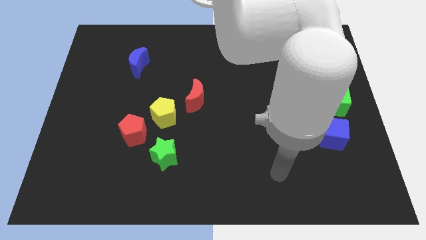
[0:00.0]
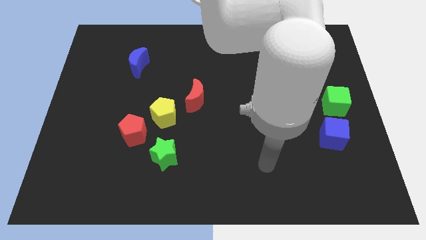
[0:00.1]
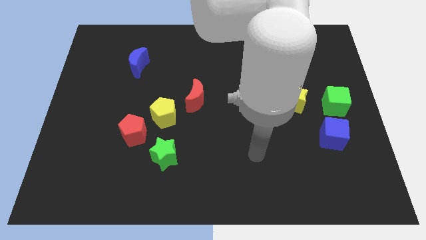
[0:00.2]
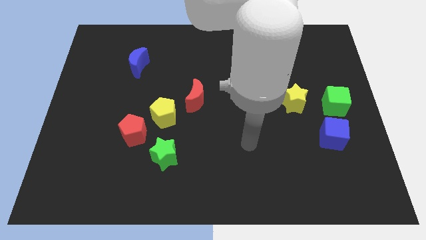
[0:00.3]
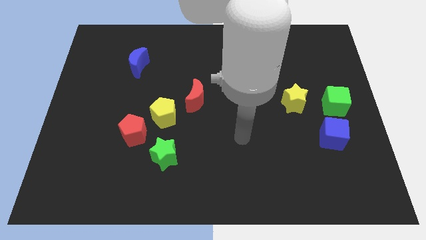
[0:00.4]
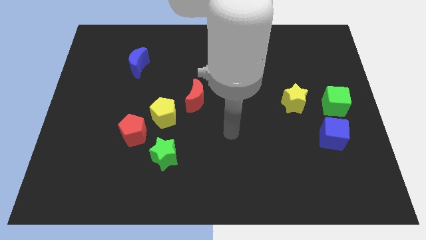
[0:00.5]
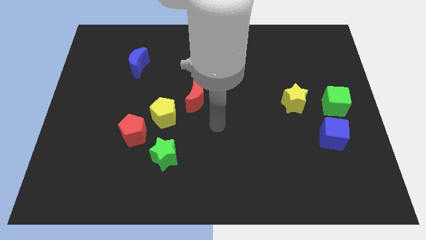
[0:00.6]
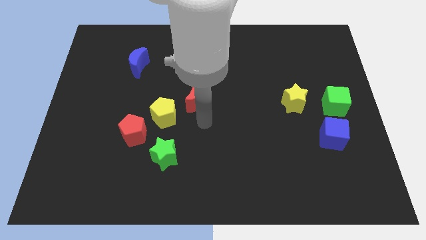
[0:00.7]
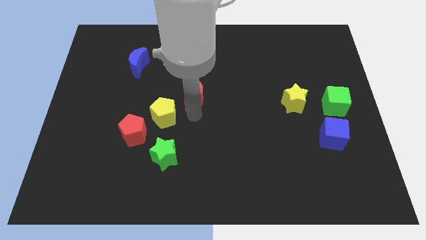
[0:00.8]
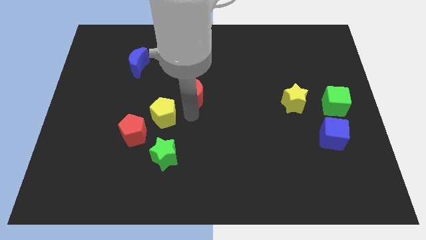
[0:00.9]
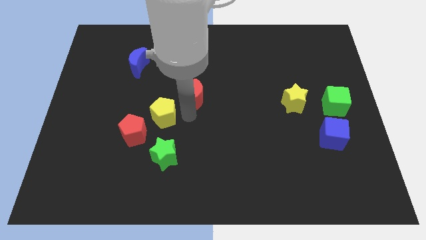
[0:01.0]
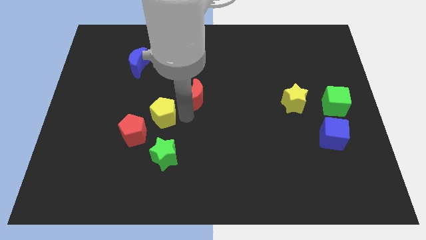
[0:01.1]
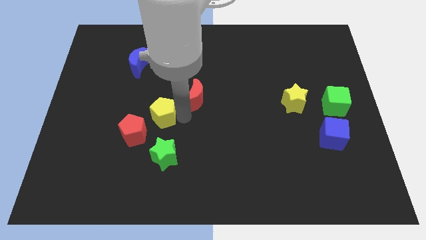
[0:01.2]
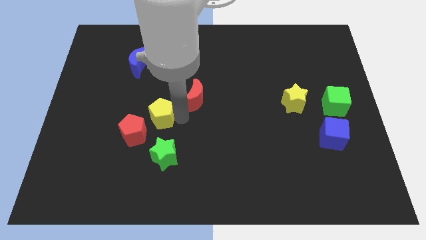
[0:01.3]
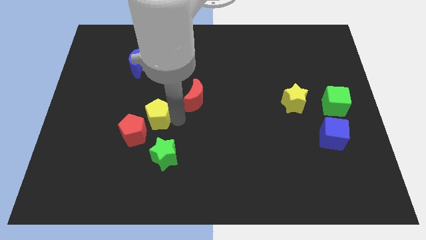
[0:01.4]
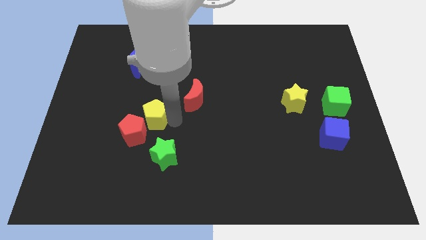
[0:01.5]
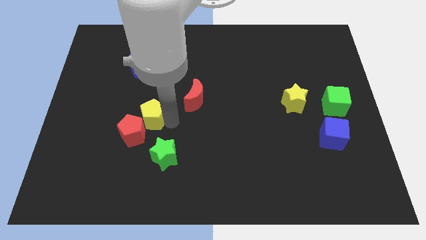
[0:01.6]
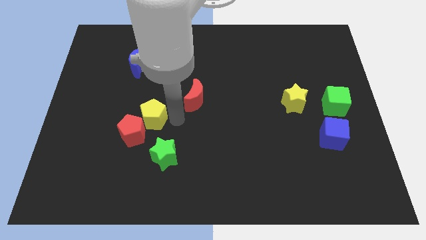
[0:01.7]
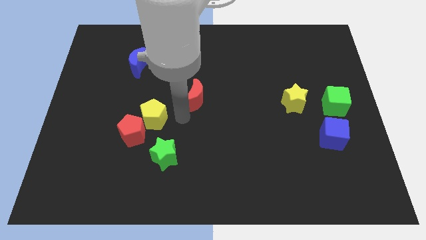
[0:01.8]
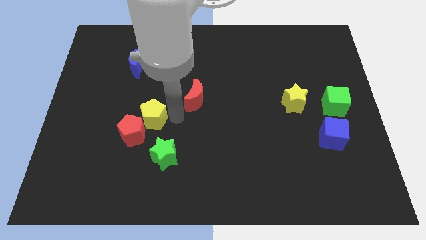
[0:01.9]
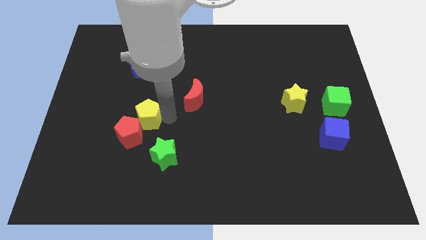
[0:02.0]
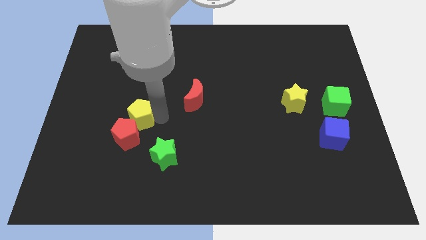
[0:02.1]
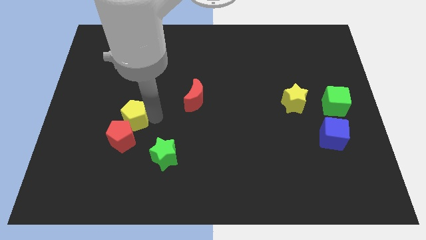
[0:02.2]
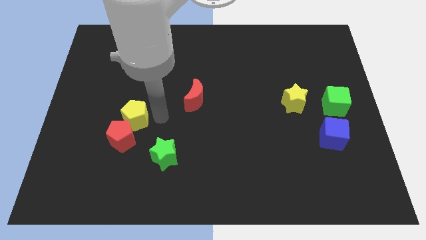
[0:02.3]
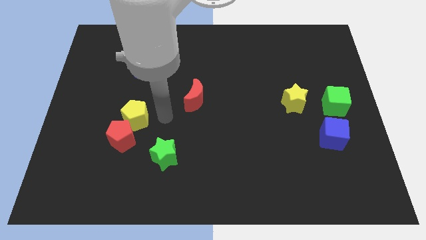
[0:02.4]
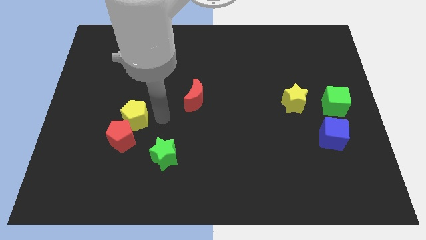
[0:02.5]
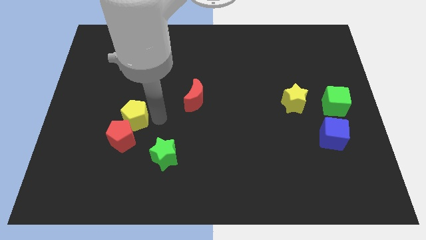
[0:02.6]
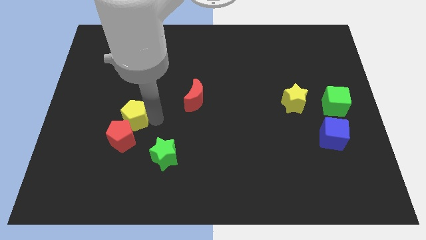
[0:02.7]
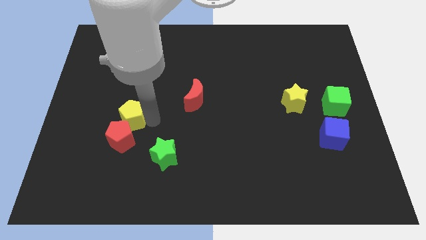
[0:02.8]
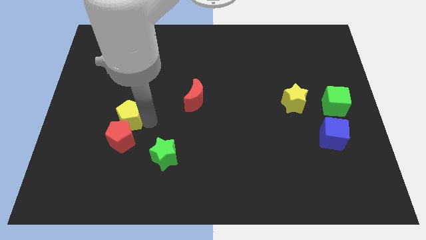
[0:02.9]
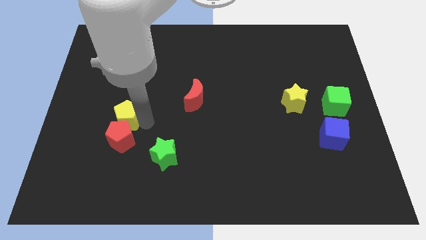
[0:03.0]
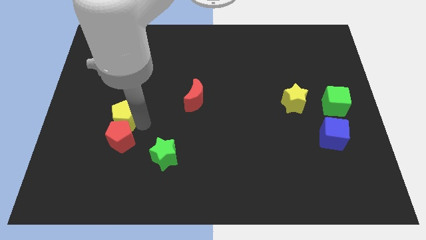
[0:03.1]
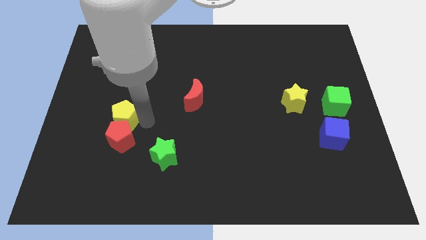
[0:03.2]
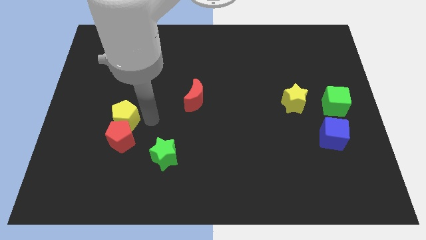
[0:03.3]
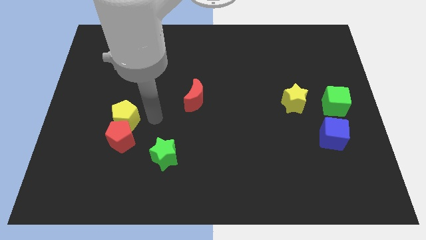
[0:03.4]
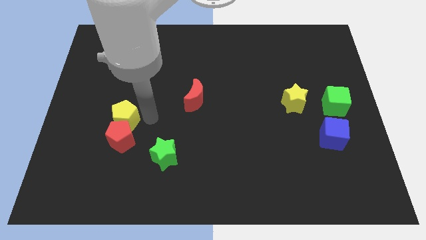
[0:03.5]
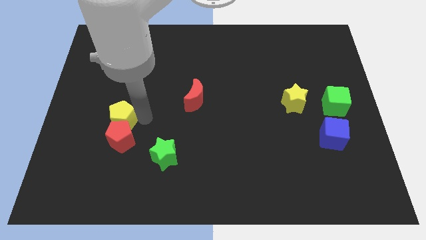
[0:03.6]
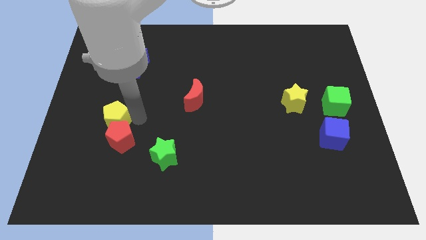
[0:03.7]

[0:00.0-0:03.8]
pull the yellow pentagon apart from the red pentagon and red moon

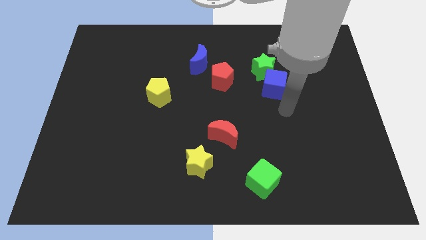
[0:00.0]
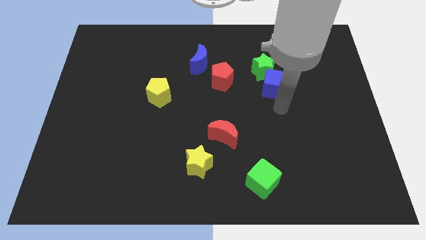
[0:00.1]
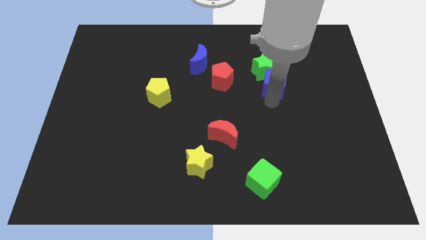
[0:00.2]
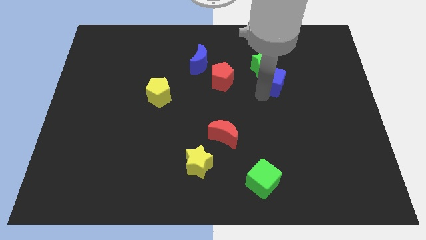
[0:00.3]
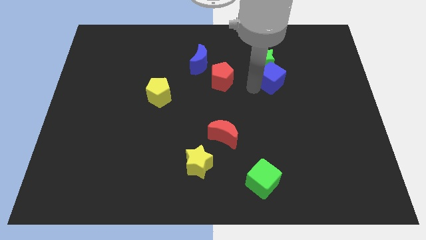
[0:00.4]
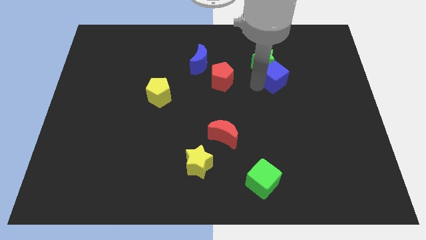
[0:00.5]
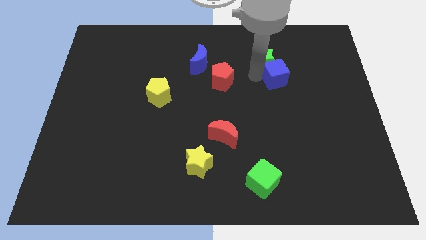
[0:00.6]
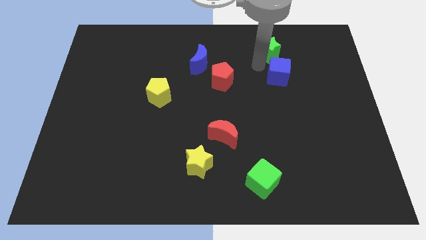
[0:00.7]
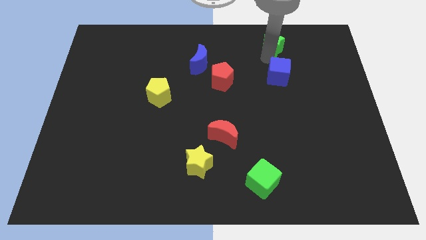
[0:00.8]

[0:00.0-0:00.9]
separate the blue cube from the green star

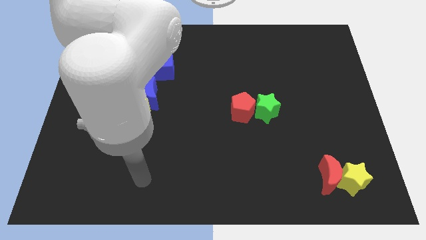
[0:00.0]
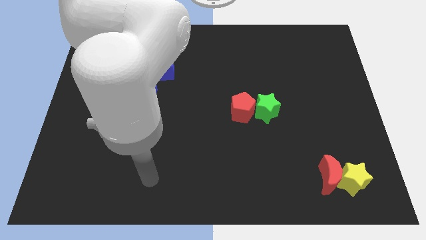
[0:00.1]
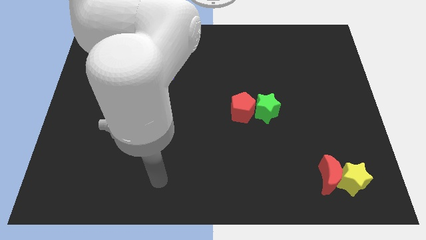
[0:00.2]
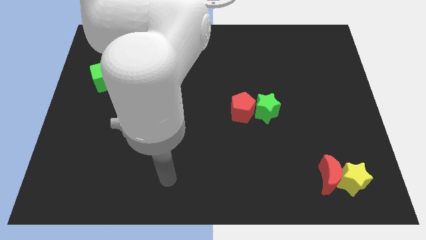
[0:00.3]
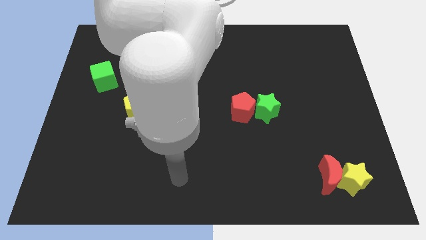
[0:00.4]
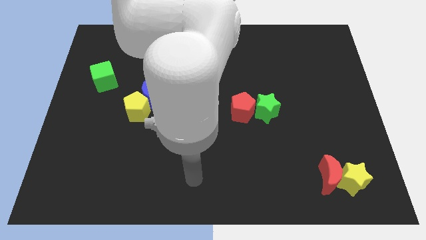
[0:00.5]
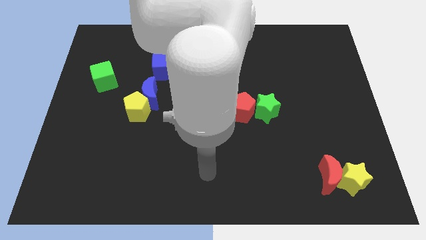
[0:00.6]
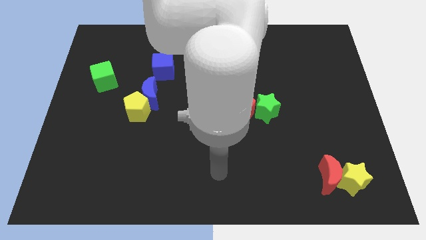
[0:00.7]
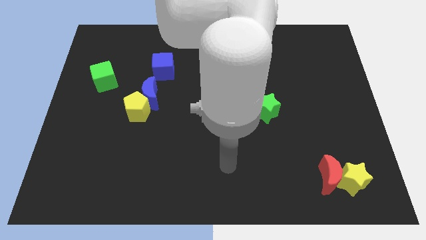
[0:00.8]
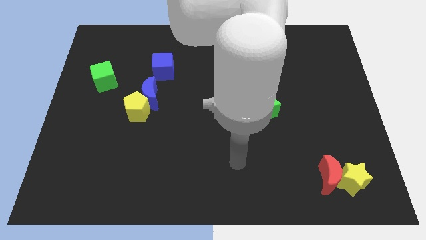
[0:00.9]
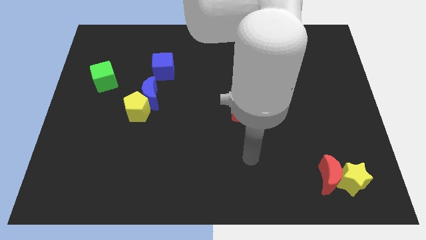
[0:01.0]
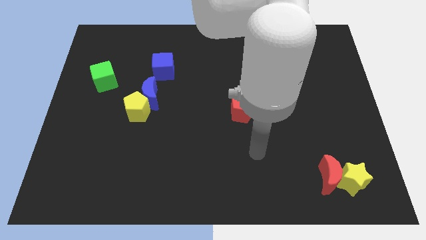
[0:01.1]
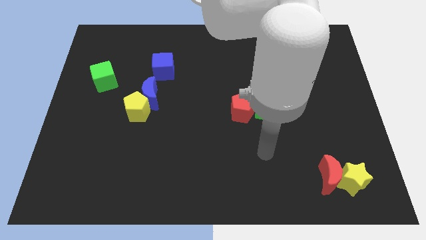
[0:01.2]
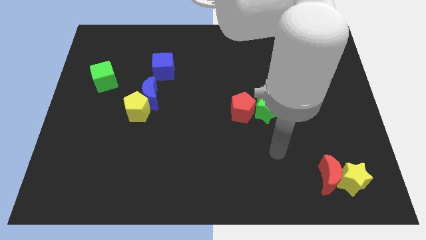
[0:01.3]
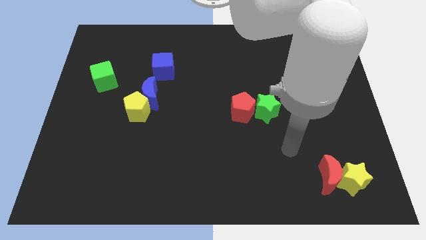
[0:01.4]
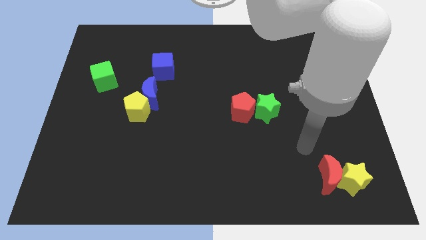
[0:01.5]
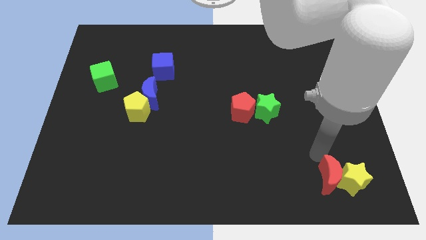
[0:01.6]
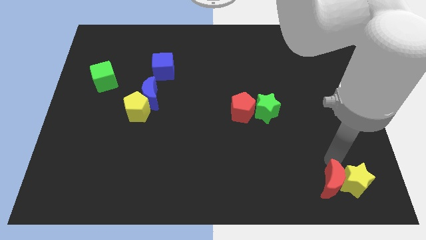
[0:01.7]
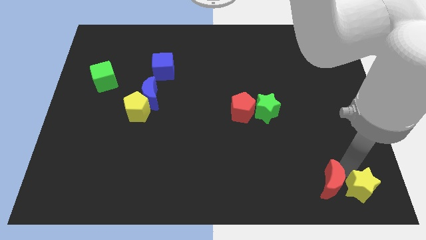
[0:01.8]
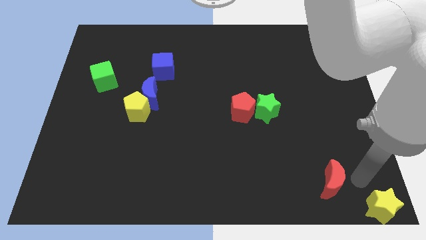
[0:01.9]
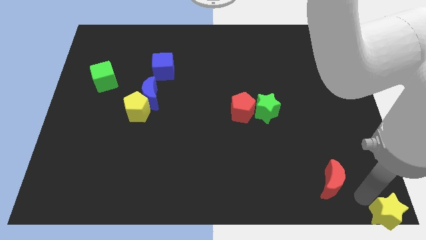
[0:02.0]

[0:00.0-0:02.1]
pull the red moon apart from the yellow star

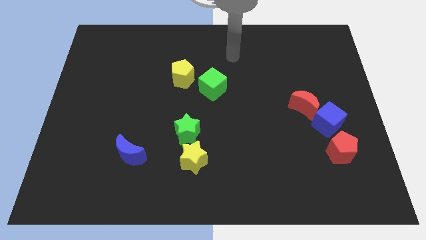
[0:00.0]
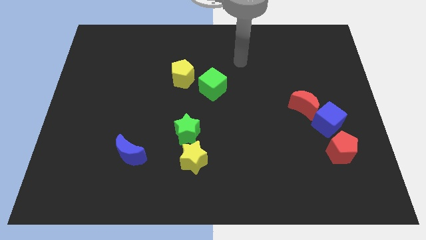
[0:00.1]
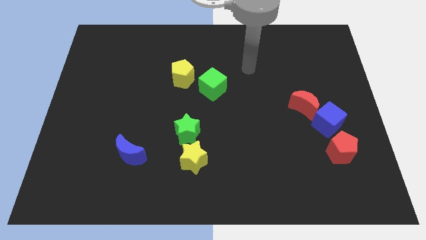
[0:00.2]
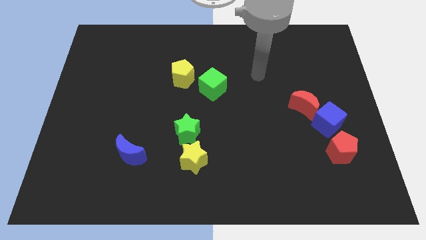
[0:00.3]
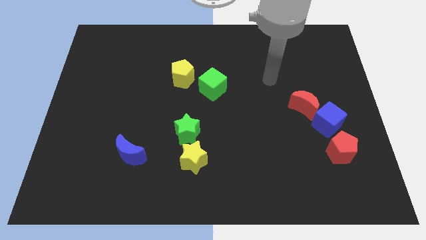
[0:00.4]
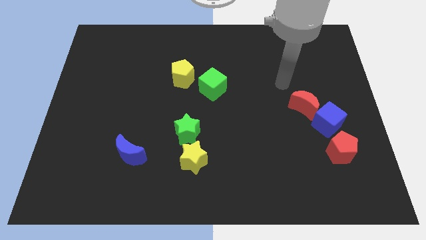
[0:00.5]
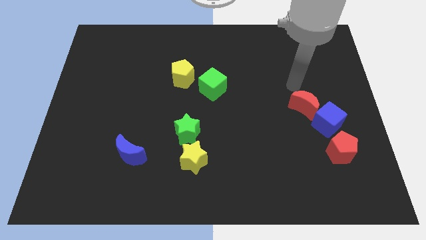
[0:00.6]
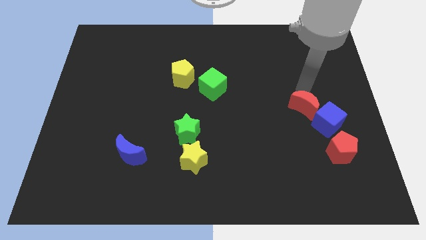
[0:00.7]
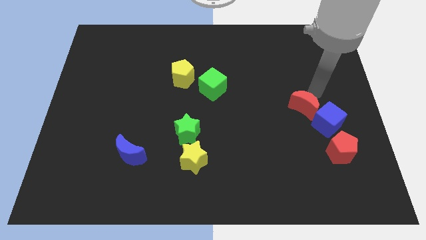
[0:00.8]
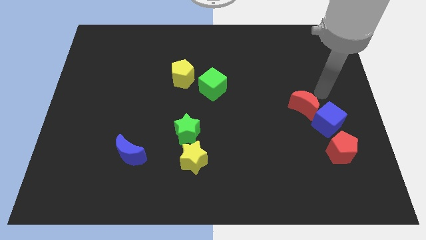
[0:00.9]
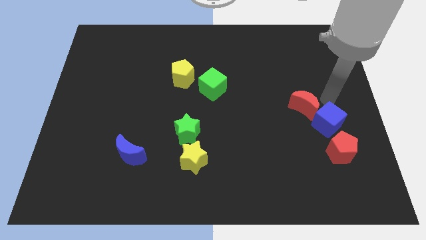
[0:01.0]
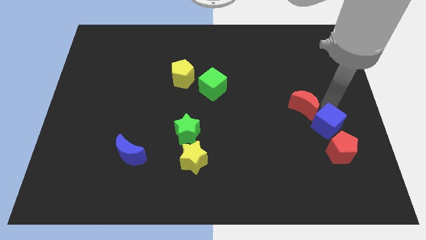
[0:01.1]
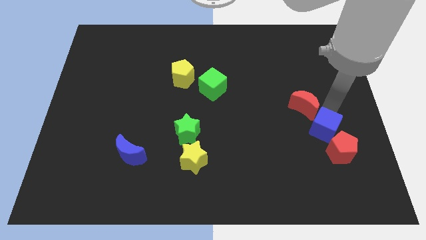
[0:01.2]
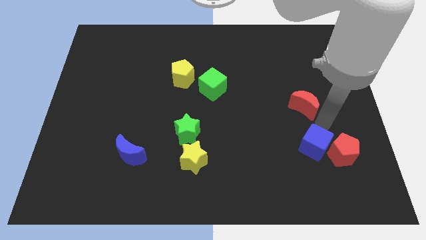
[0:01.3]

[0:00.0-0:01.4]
move the red moon away from the blue cube

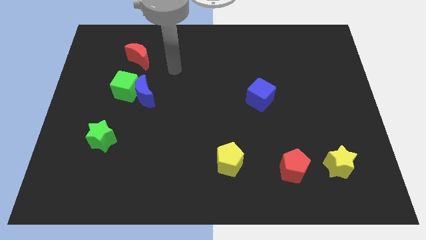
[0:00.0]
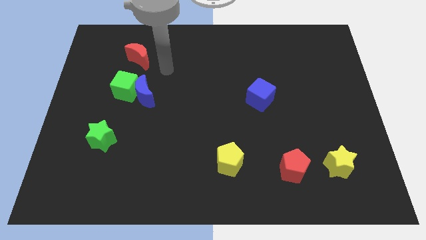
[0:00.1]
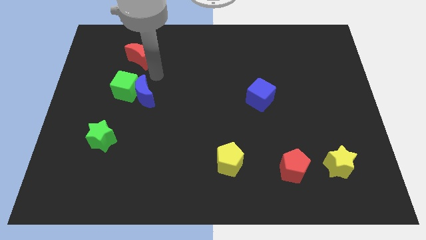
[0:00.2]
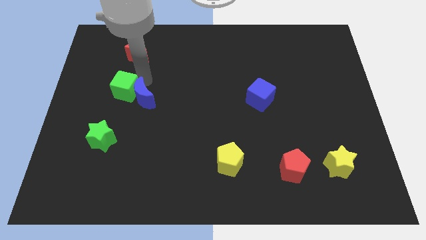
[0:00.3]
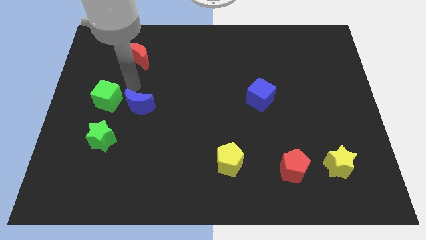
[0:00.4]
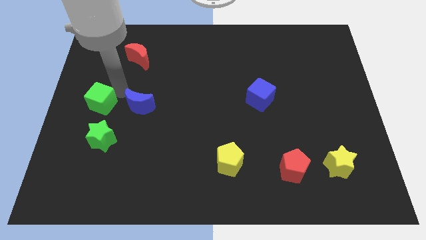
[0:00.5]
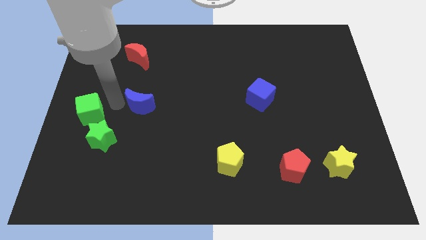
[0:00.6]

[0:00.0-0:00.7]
separate the blue moon from the green cube

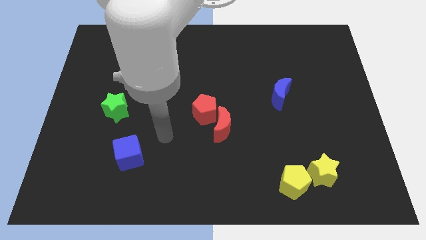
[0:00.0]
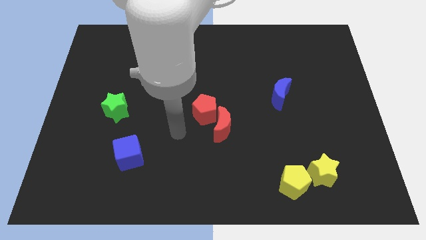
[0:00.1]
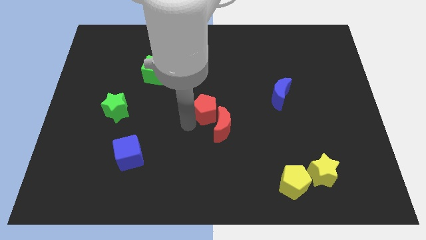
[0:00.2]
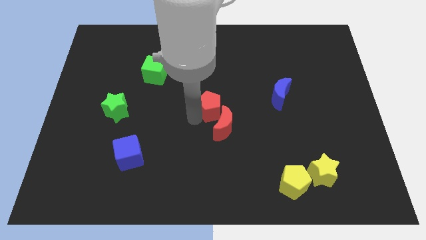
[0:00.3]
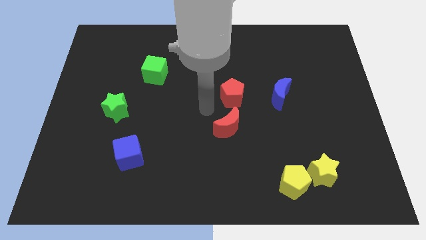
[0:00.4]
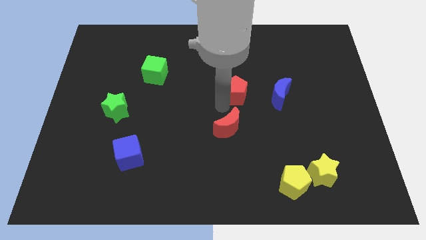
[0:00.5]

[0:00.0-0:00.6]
separate the red moon from the red pentagon
